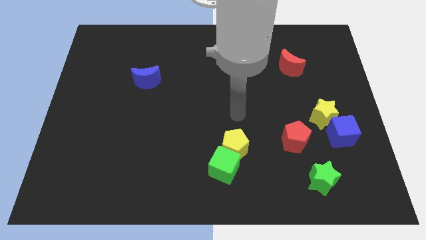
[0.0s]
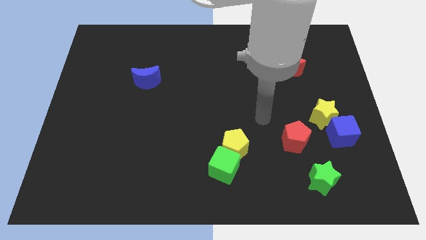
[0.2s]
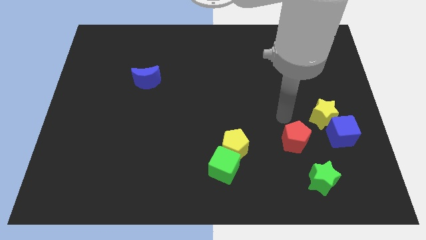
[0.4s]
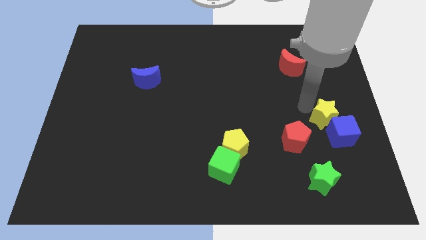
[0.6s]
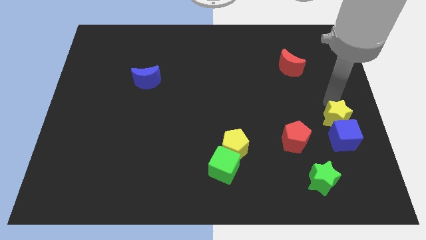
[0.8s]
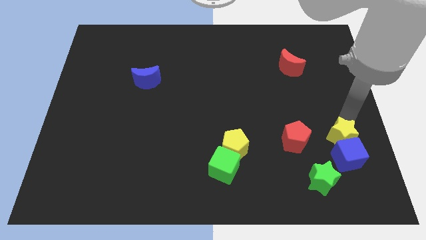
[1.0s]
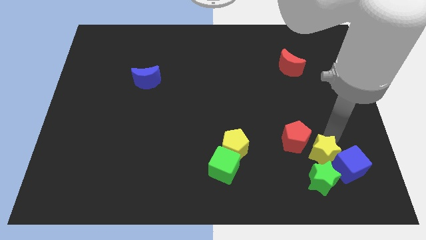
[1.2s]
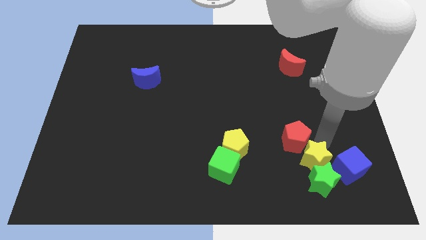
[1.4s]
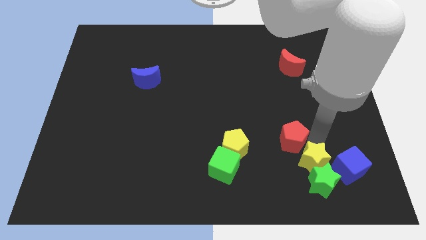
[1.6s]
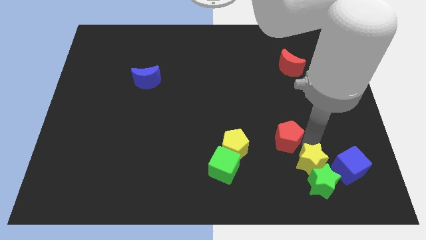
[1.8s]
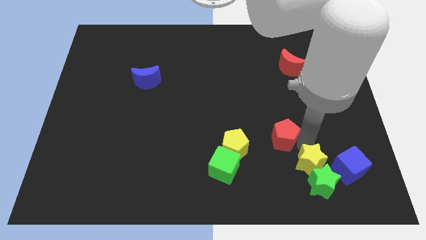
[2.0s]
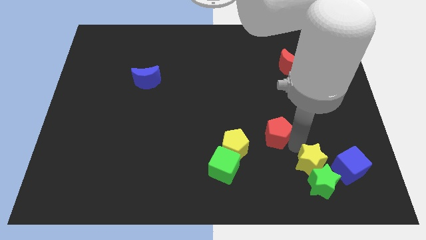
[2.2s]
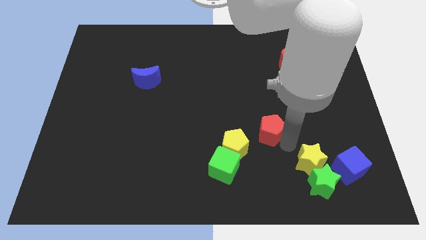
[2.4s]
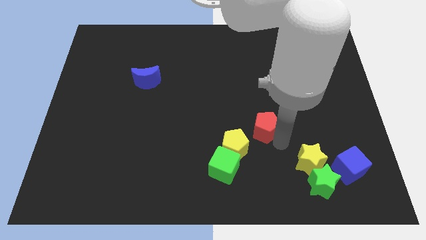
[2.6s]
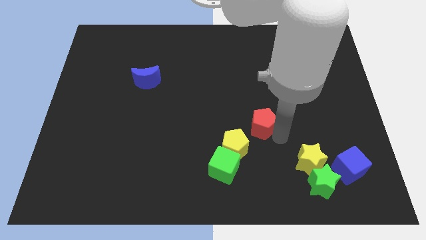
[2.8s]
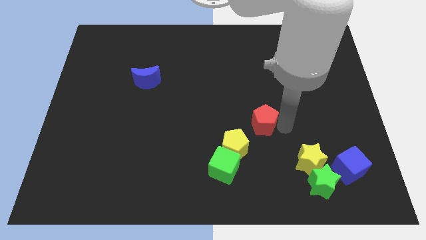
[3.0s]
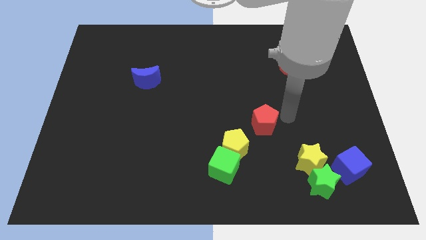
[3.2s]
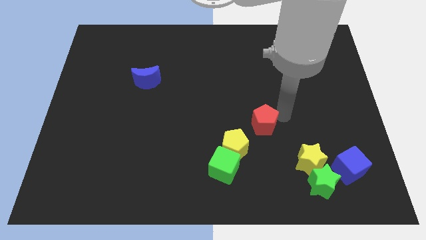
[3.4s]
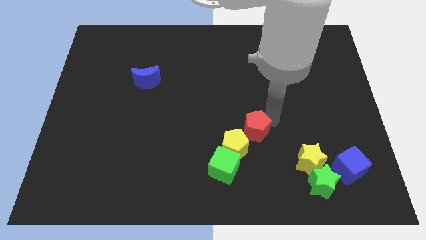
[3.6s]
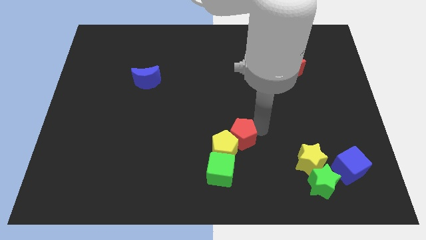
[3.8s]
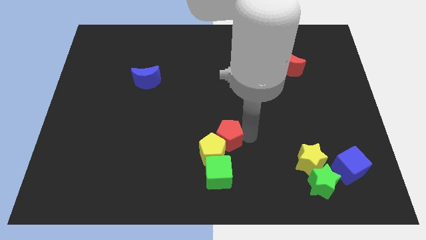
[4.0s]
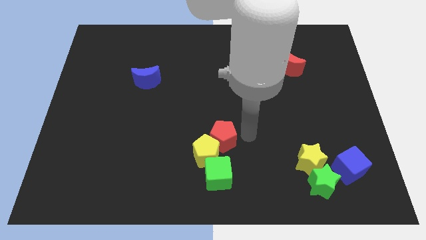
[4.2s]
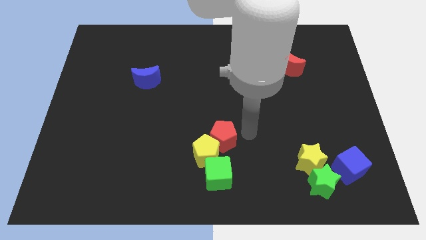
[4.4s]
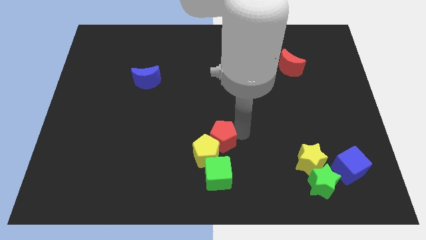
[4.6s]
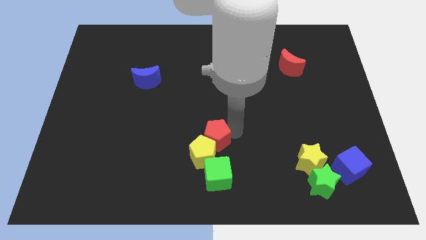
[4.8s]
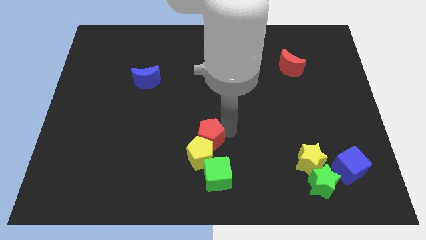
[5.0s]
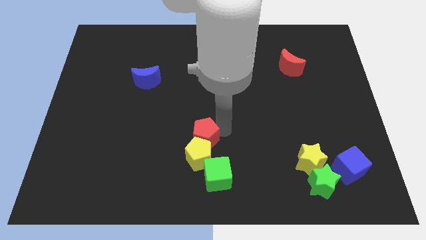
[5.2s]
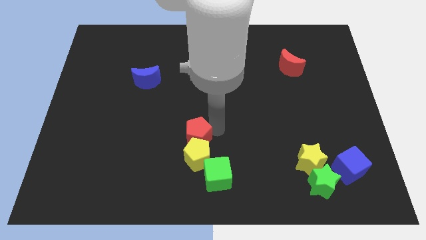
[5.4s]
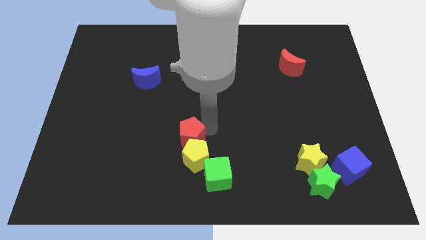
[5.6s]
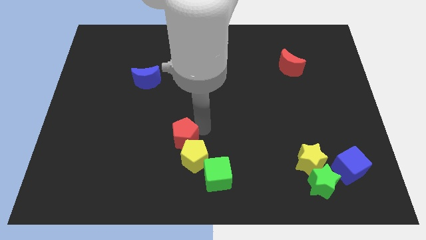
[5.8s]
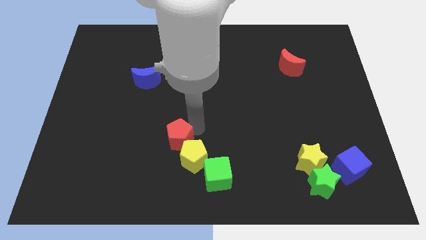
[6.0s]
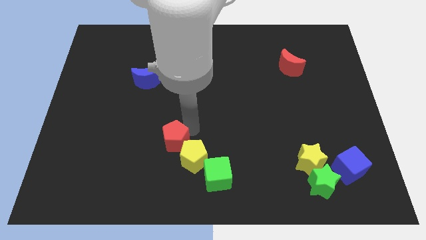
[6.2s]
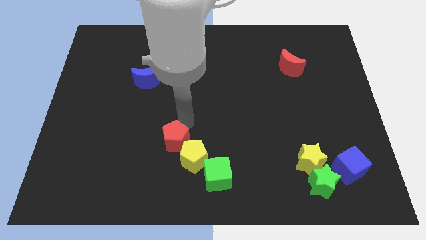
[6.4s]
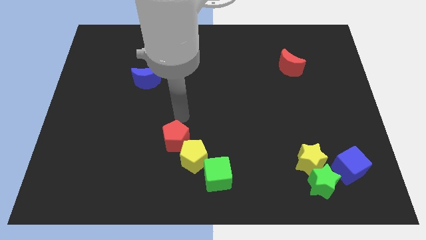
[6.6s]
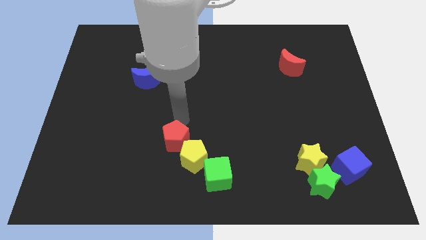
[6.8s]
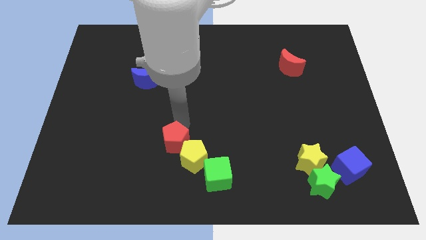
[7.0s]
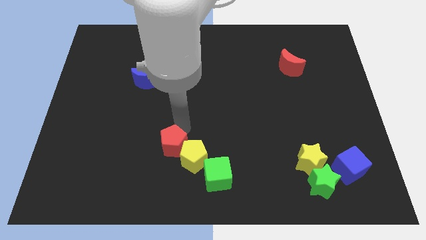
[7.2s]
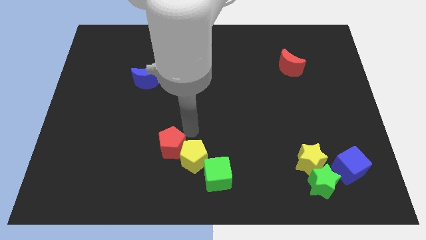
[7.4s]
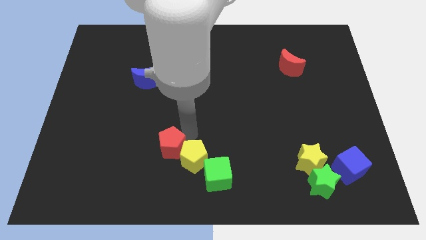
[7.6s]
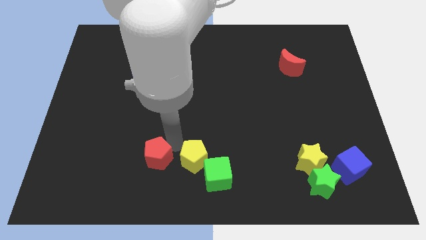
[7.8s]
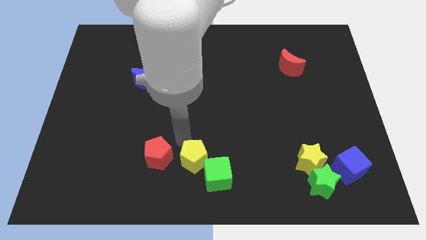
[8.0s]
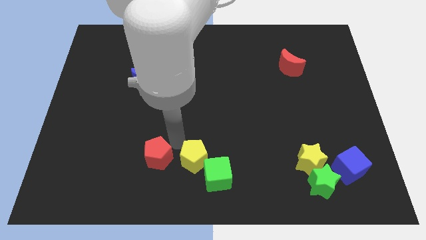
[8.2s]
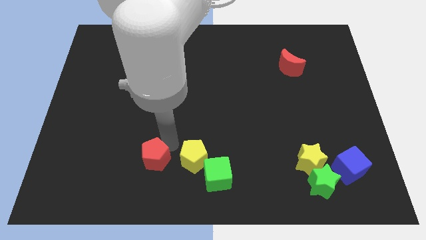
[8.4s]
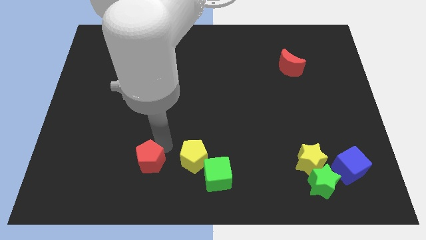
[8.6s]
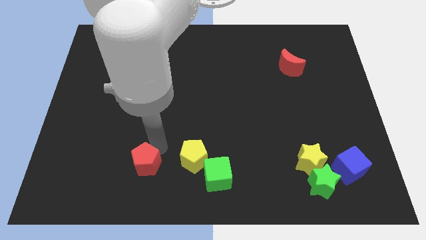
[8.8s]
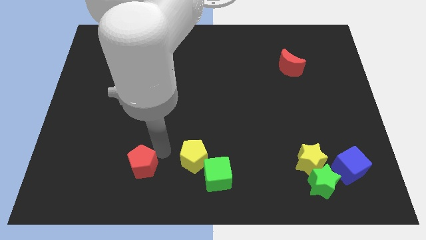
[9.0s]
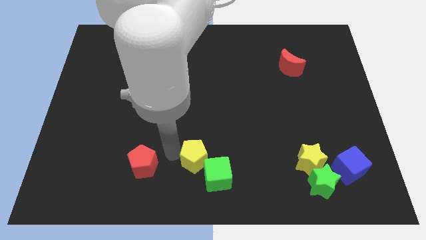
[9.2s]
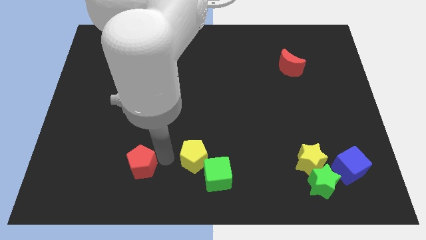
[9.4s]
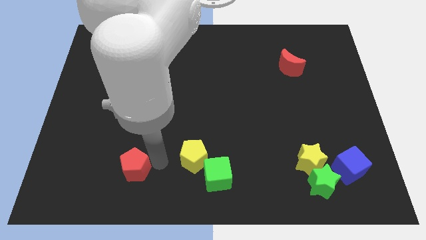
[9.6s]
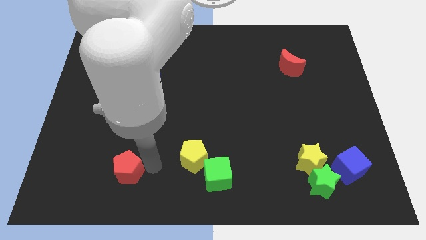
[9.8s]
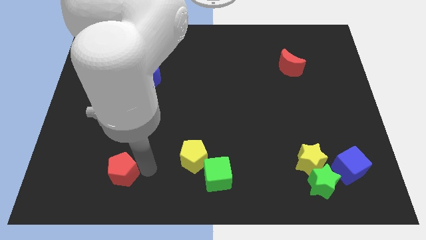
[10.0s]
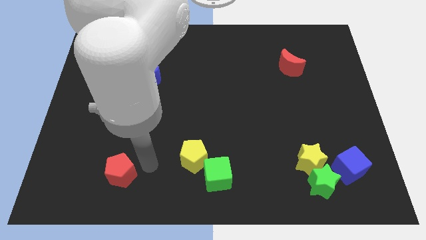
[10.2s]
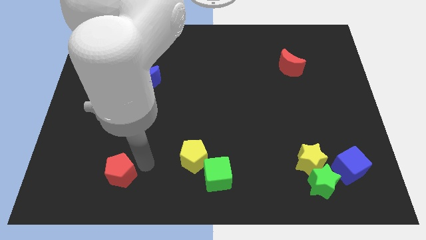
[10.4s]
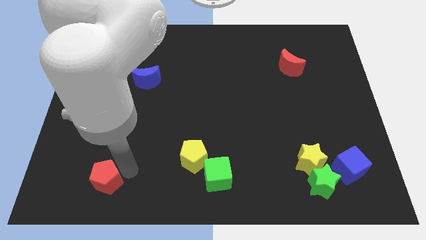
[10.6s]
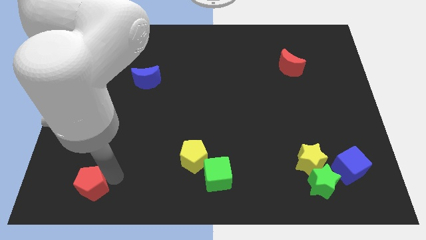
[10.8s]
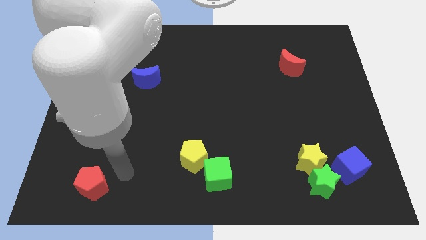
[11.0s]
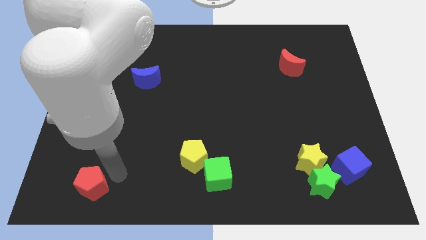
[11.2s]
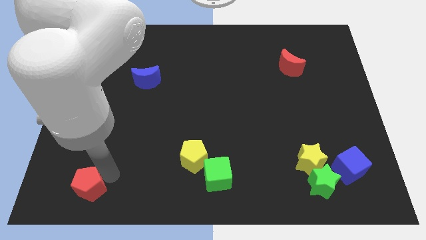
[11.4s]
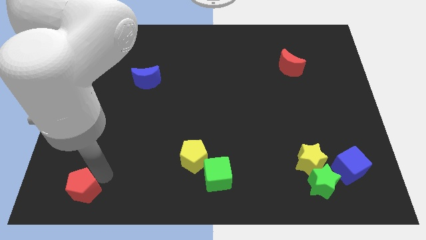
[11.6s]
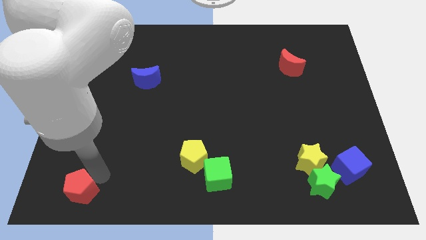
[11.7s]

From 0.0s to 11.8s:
move the red pentagon to the bottom left of the board

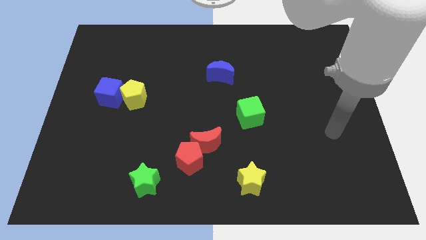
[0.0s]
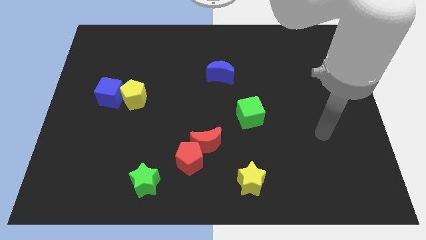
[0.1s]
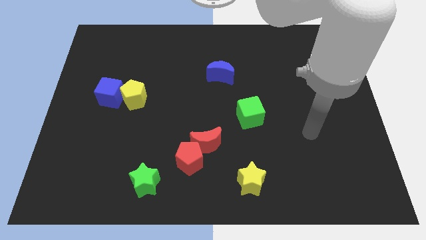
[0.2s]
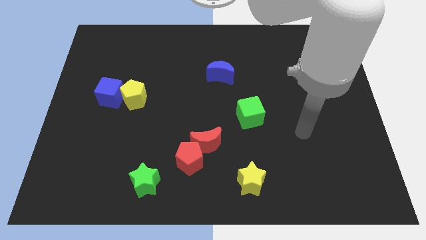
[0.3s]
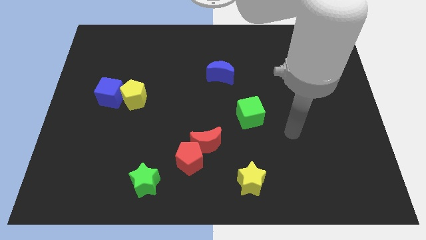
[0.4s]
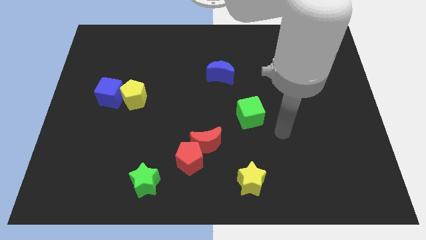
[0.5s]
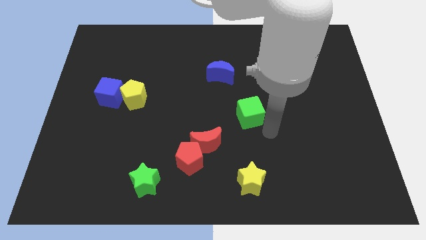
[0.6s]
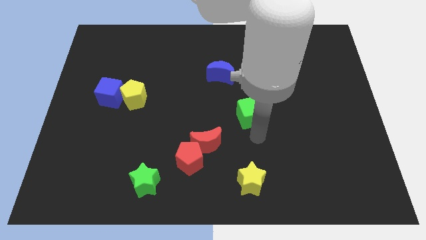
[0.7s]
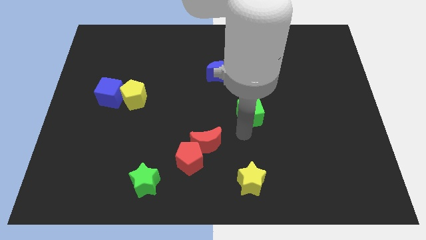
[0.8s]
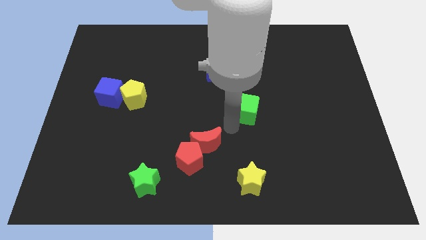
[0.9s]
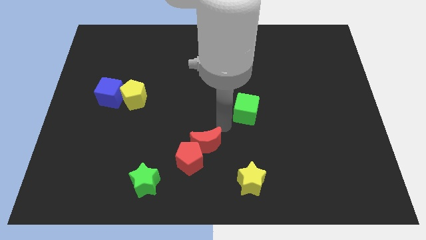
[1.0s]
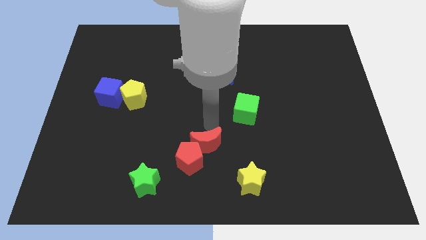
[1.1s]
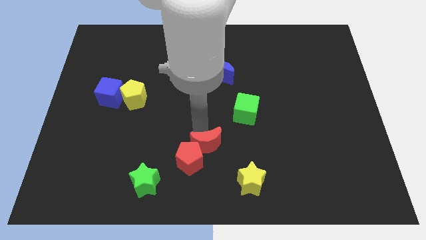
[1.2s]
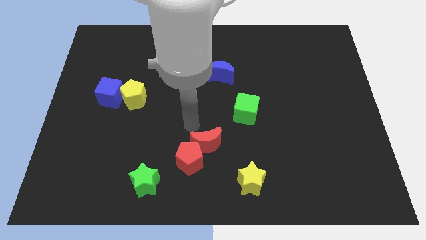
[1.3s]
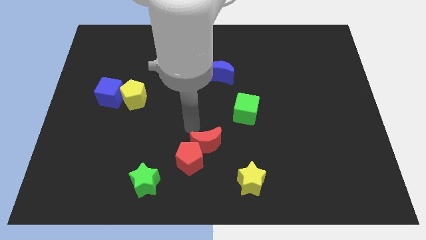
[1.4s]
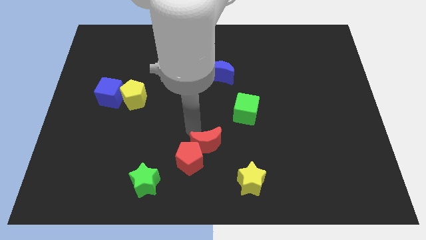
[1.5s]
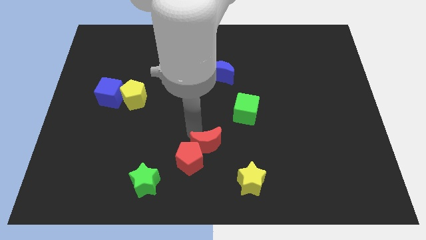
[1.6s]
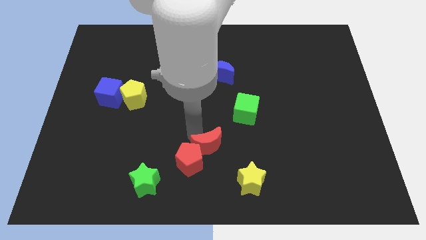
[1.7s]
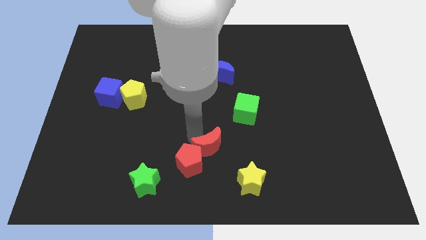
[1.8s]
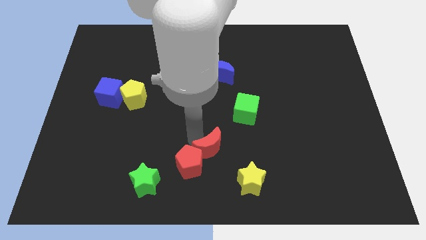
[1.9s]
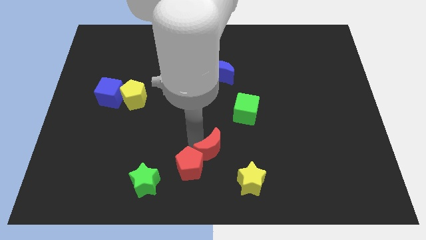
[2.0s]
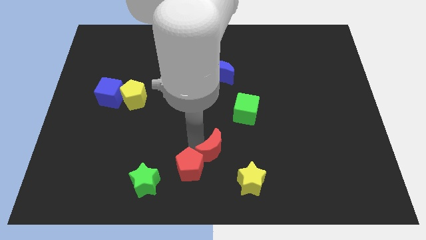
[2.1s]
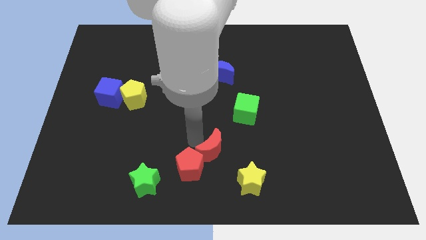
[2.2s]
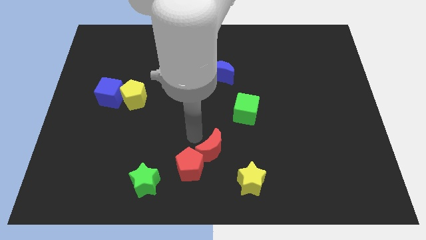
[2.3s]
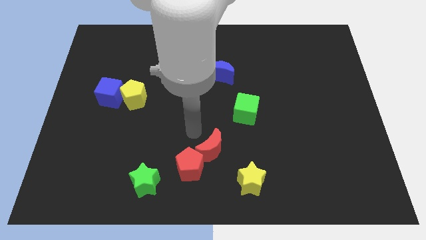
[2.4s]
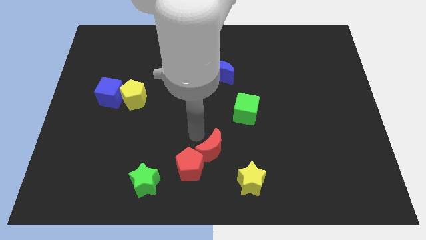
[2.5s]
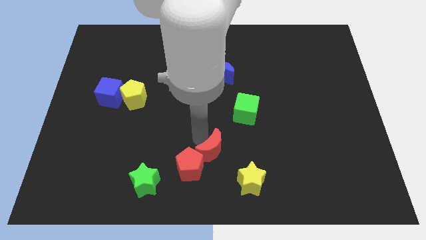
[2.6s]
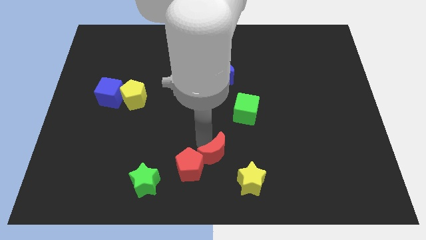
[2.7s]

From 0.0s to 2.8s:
move the red moon to the bottom
